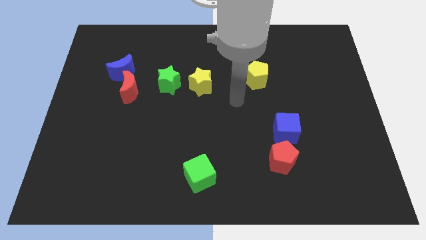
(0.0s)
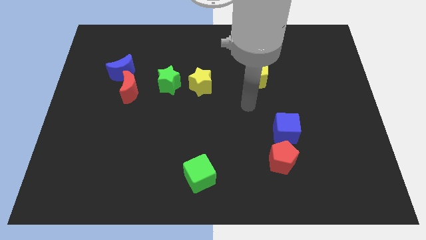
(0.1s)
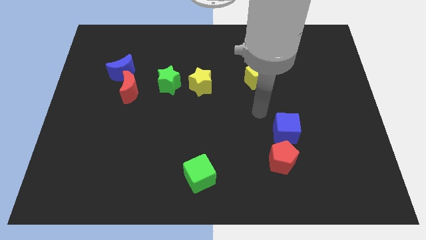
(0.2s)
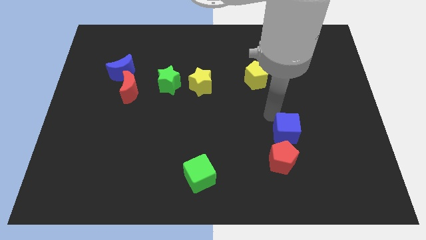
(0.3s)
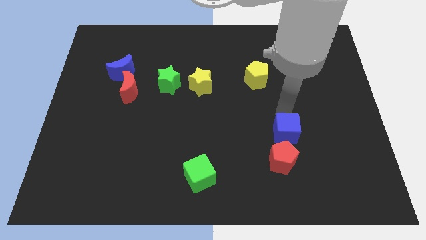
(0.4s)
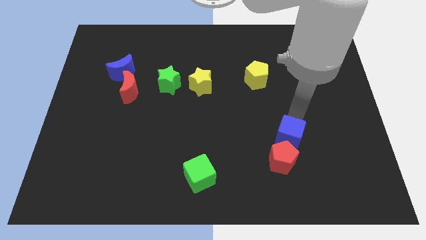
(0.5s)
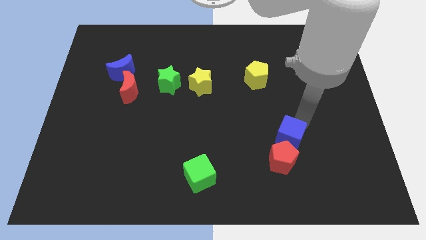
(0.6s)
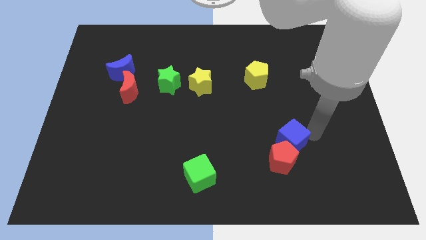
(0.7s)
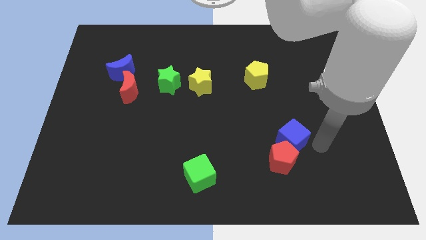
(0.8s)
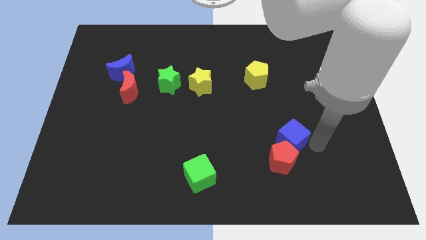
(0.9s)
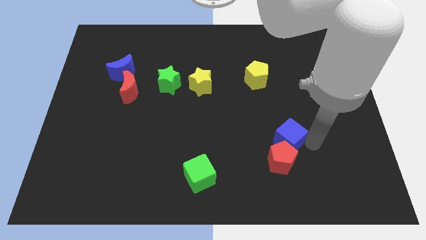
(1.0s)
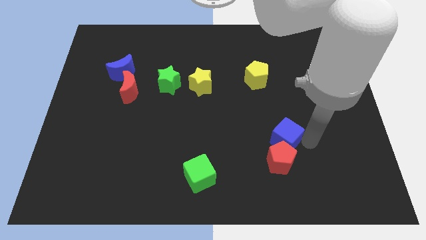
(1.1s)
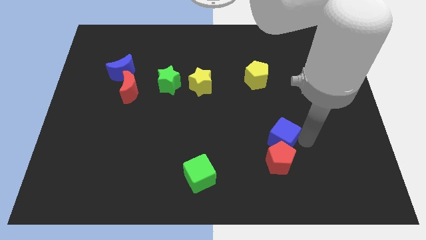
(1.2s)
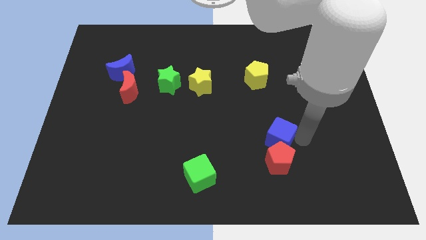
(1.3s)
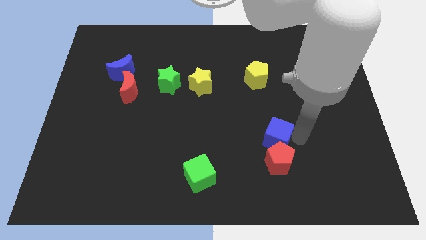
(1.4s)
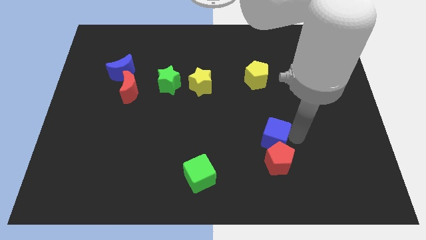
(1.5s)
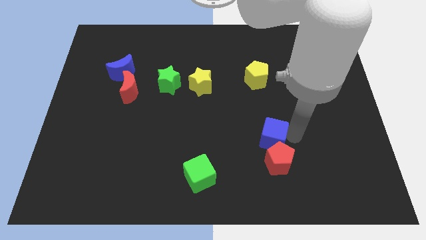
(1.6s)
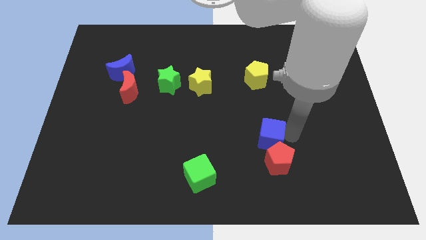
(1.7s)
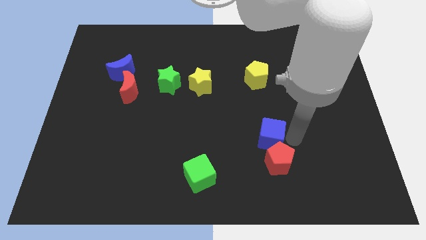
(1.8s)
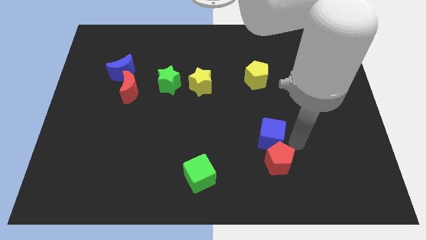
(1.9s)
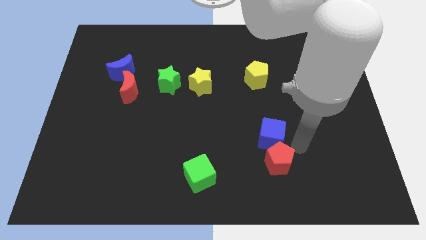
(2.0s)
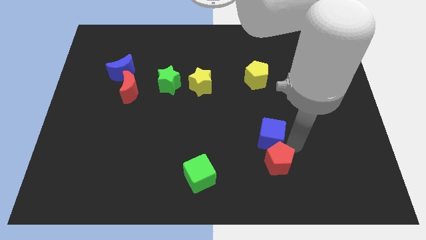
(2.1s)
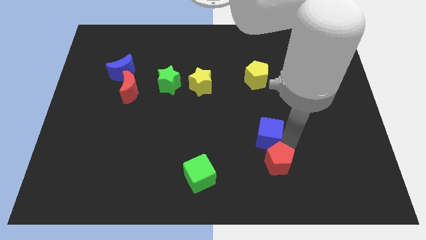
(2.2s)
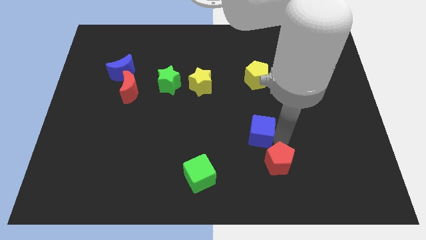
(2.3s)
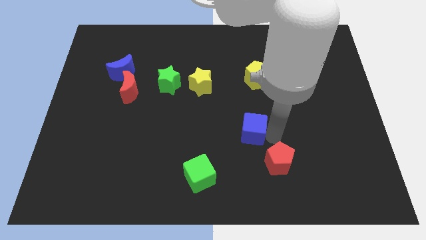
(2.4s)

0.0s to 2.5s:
slightly slide the blue cube left

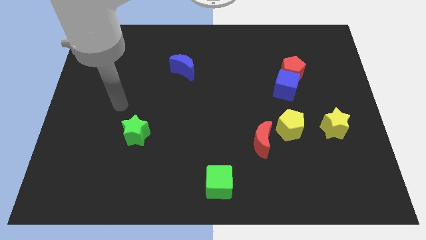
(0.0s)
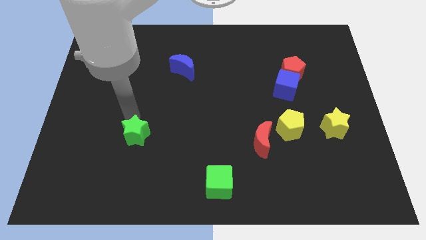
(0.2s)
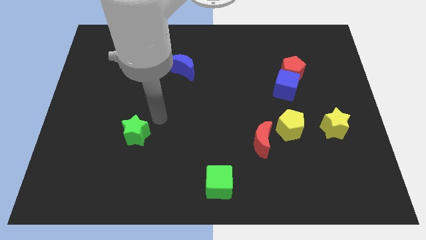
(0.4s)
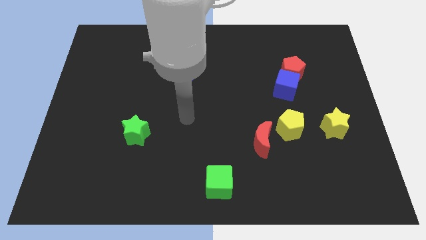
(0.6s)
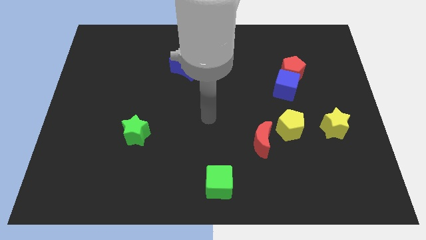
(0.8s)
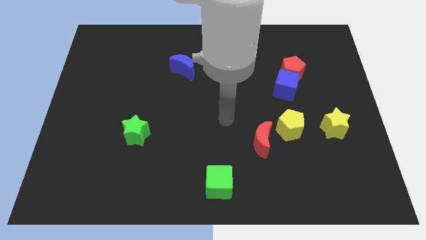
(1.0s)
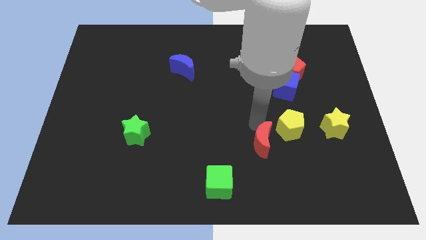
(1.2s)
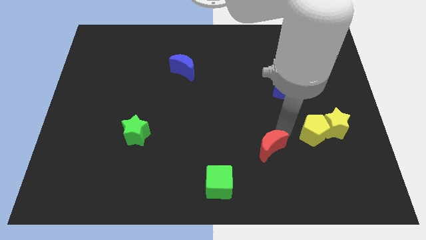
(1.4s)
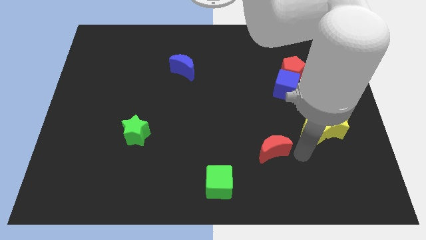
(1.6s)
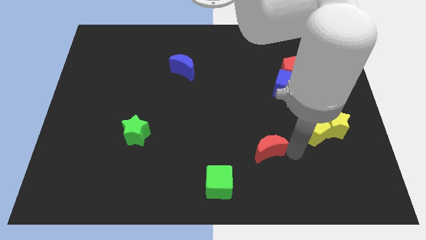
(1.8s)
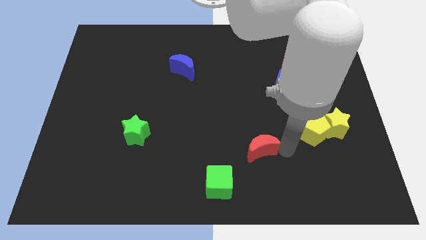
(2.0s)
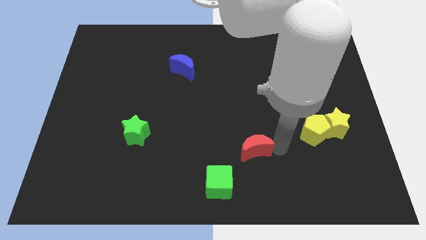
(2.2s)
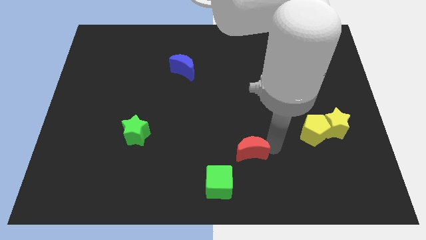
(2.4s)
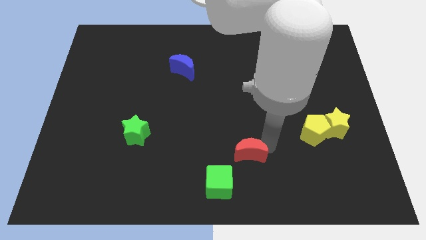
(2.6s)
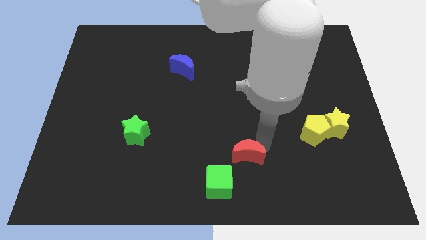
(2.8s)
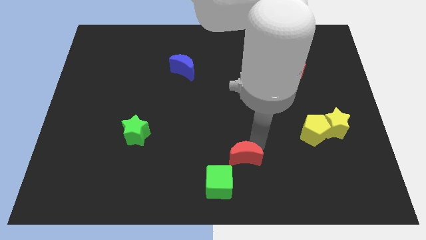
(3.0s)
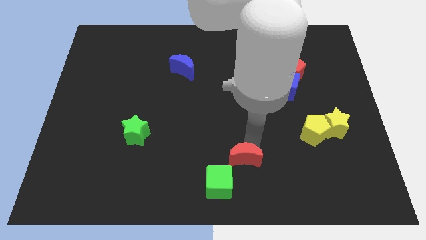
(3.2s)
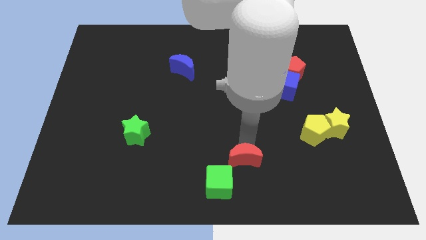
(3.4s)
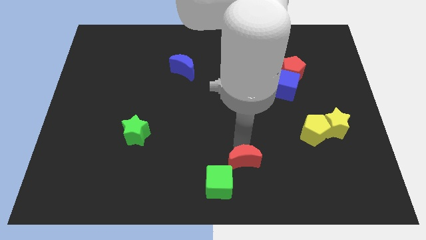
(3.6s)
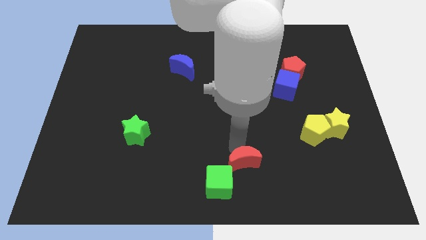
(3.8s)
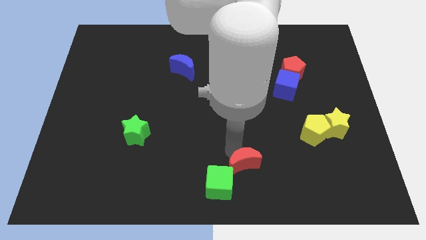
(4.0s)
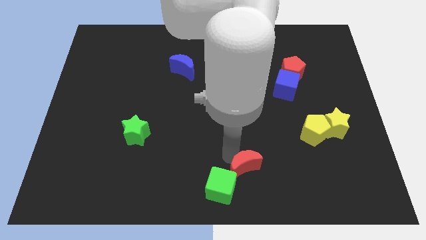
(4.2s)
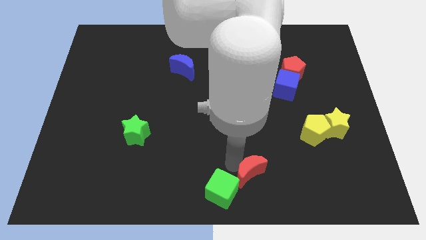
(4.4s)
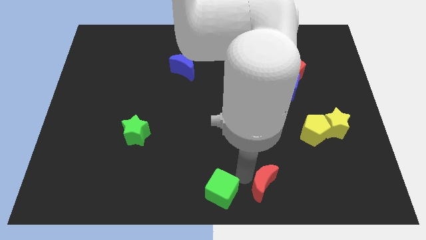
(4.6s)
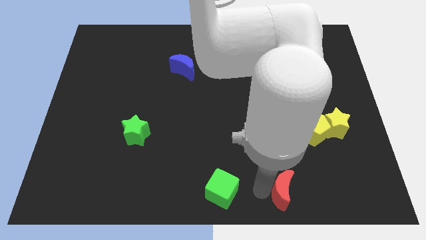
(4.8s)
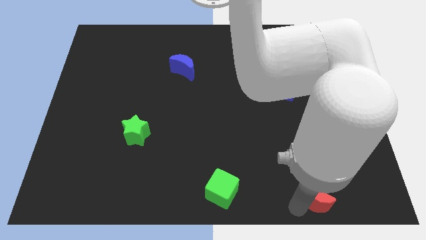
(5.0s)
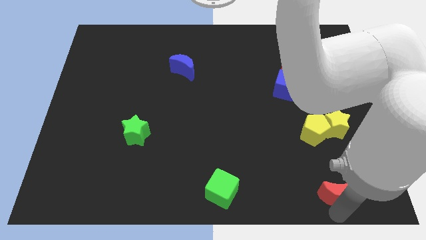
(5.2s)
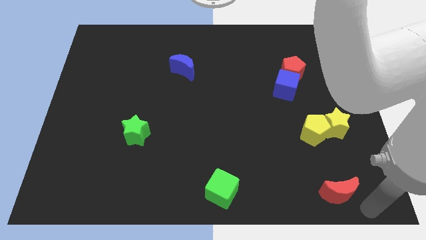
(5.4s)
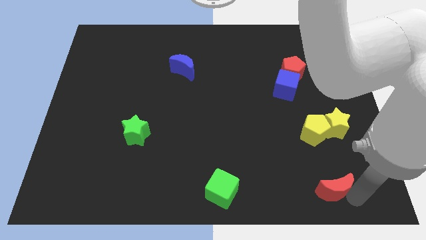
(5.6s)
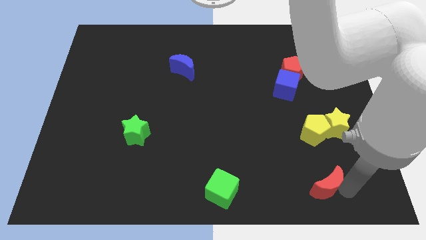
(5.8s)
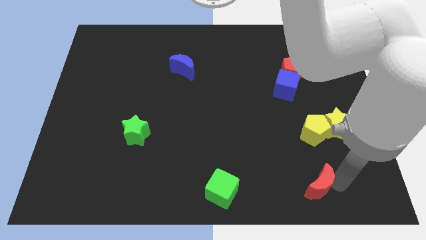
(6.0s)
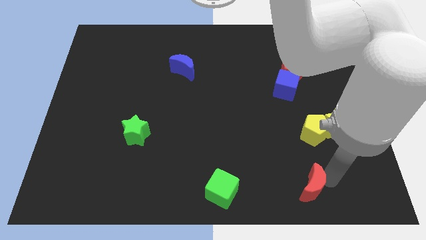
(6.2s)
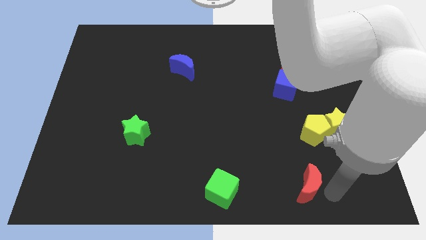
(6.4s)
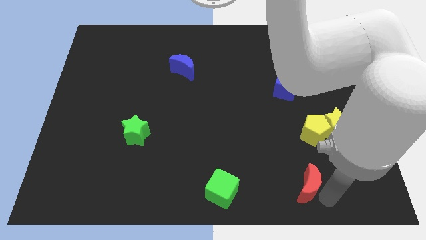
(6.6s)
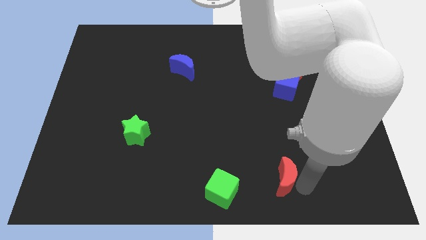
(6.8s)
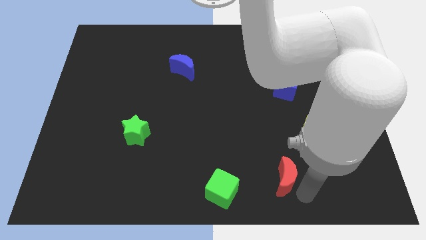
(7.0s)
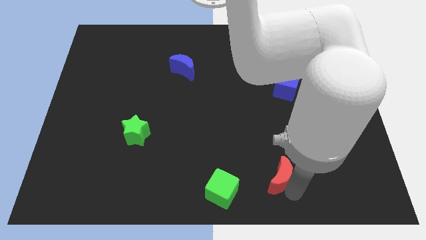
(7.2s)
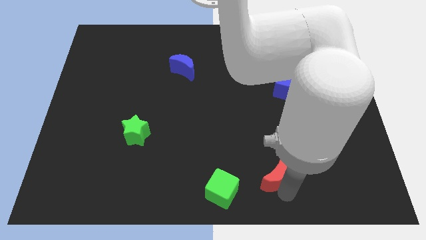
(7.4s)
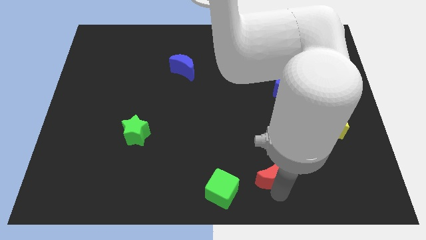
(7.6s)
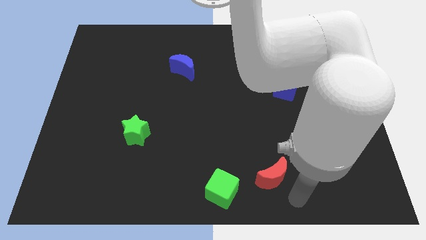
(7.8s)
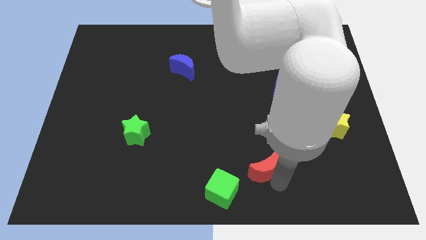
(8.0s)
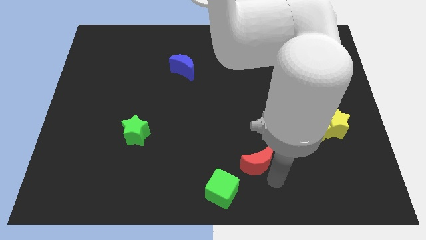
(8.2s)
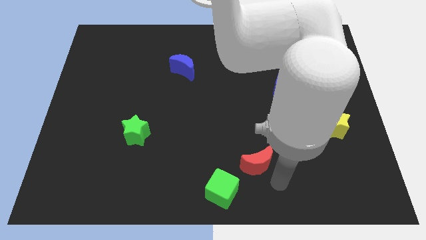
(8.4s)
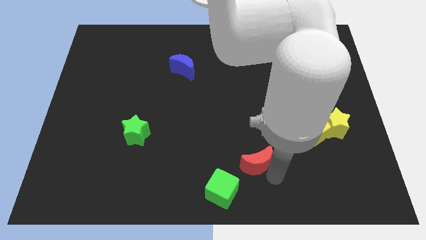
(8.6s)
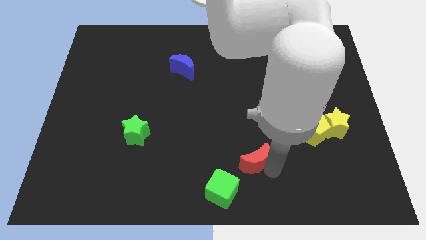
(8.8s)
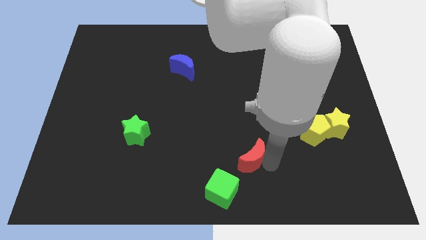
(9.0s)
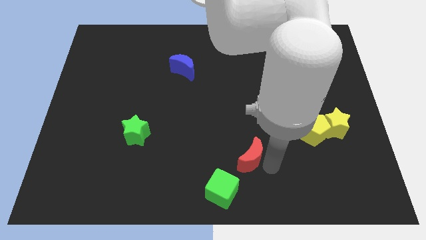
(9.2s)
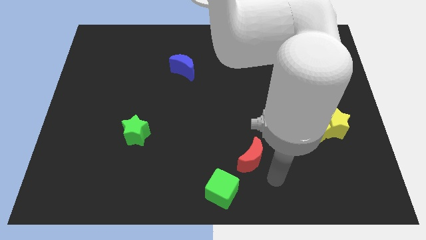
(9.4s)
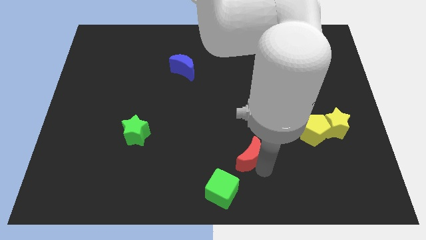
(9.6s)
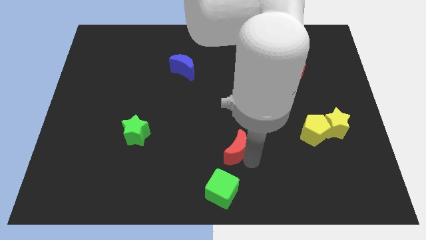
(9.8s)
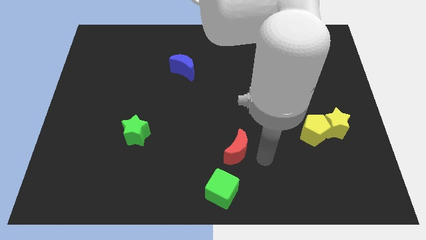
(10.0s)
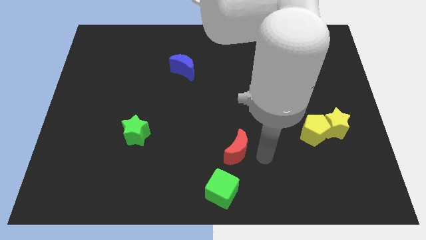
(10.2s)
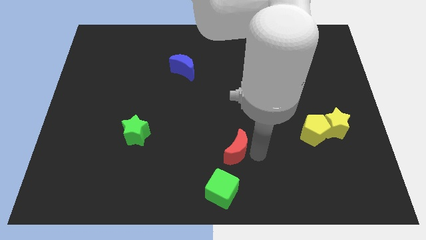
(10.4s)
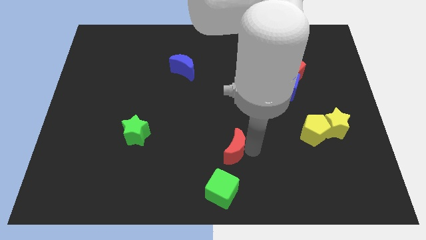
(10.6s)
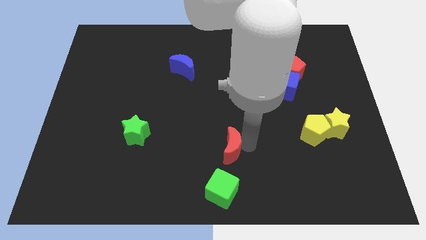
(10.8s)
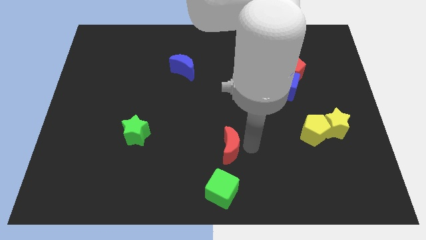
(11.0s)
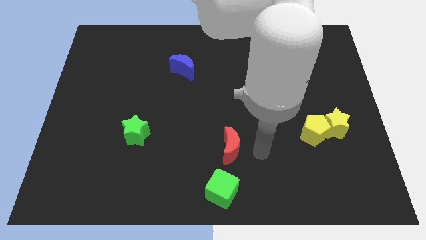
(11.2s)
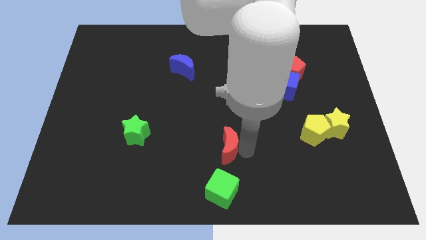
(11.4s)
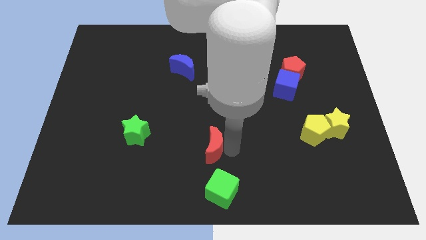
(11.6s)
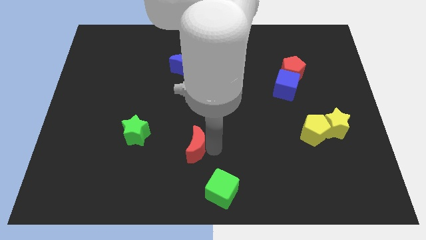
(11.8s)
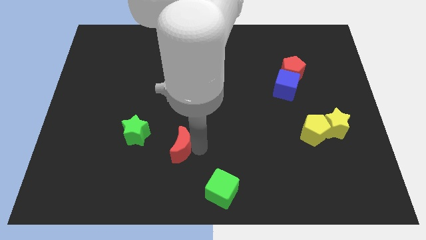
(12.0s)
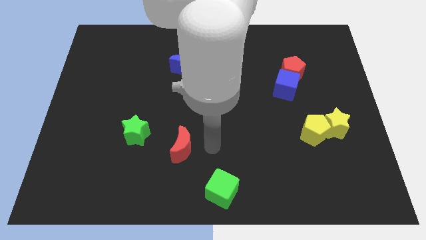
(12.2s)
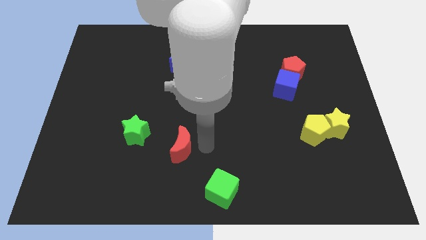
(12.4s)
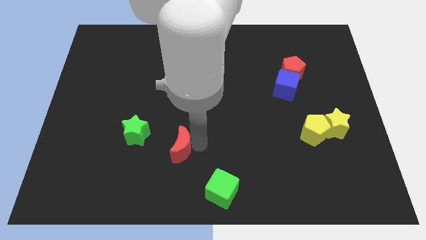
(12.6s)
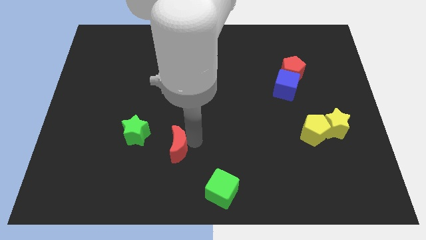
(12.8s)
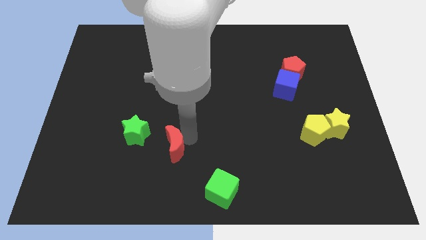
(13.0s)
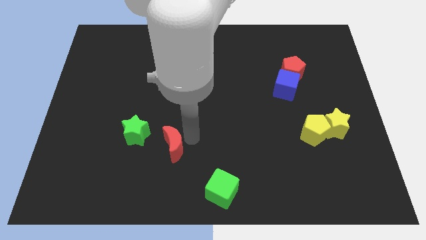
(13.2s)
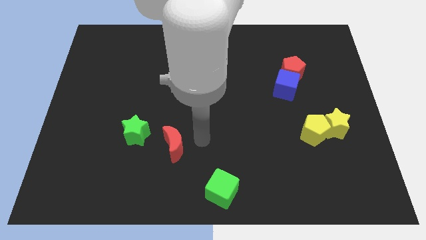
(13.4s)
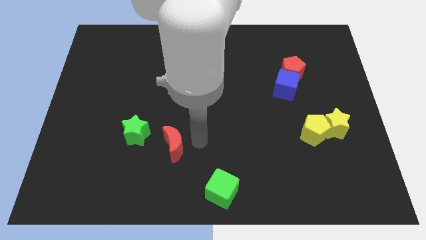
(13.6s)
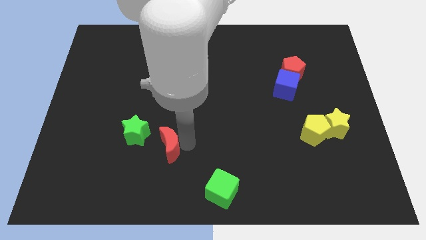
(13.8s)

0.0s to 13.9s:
push the red moon left
